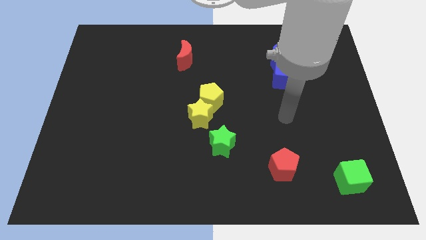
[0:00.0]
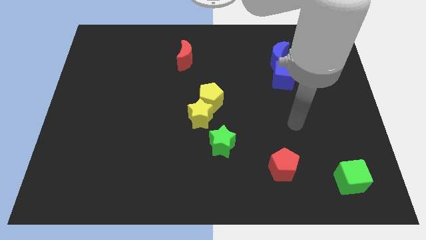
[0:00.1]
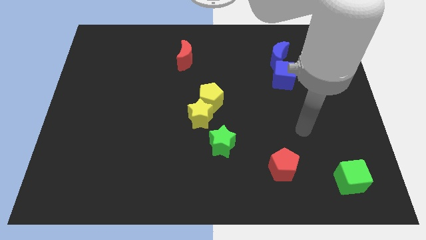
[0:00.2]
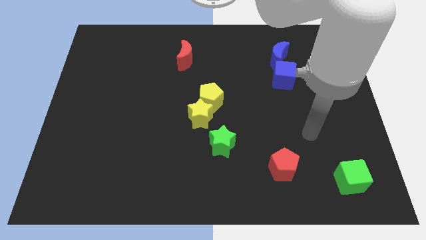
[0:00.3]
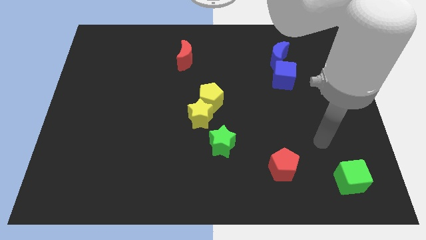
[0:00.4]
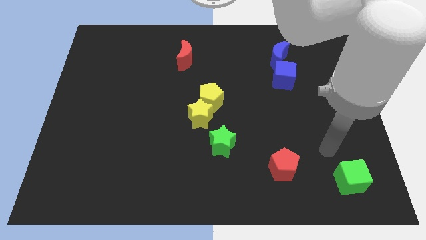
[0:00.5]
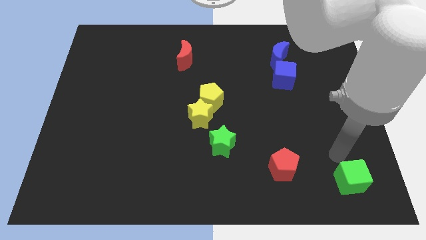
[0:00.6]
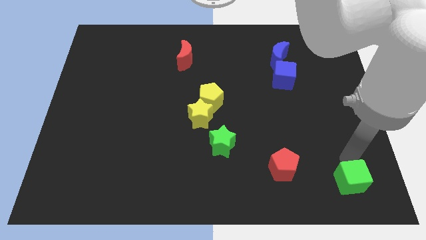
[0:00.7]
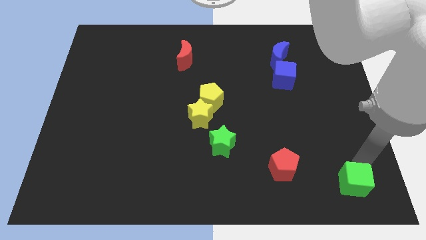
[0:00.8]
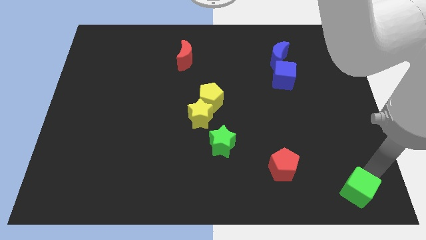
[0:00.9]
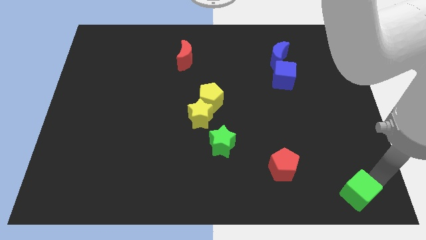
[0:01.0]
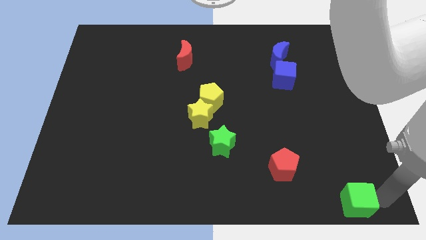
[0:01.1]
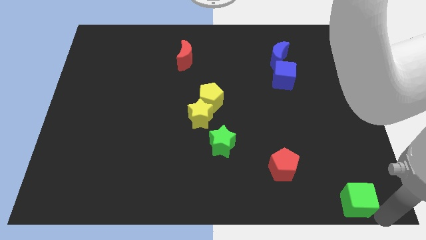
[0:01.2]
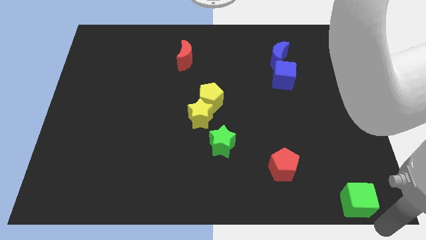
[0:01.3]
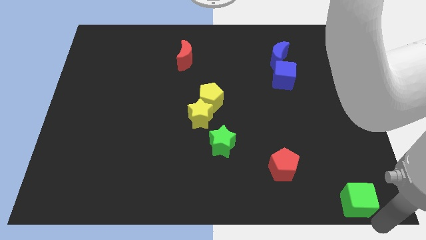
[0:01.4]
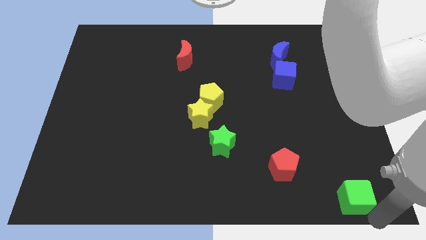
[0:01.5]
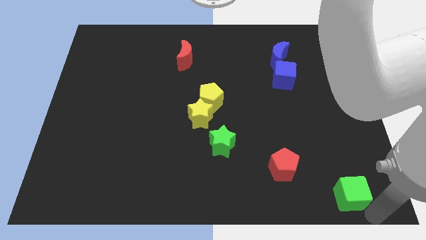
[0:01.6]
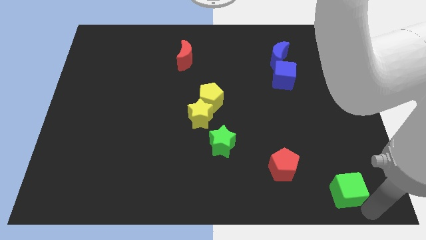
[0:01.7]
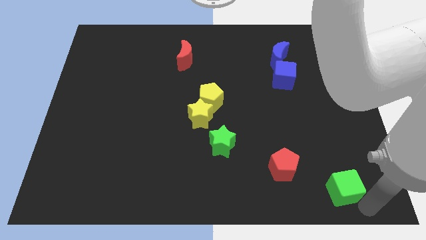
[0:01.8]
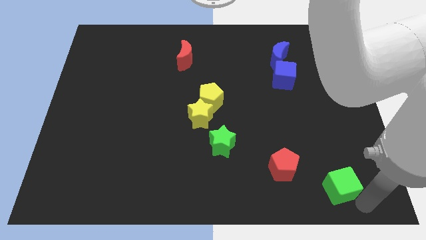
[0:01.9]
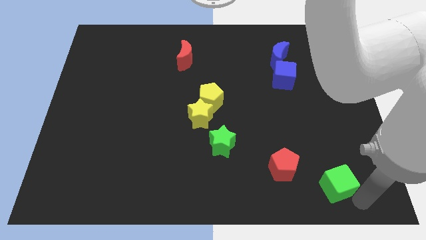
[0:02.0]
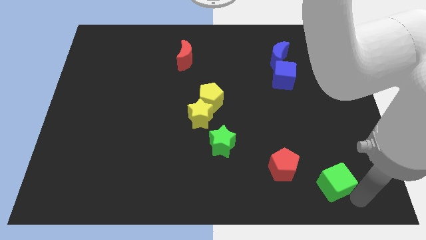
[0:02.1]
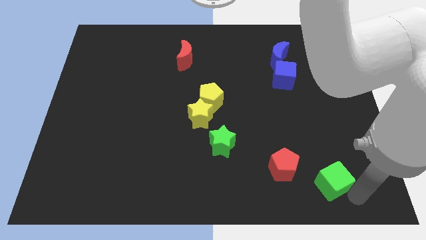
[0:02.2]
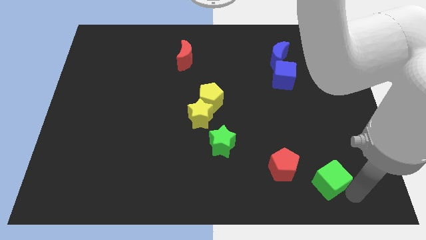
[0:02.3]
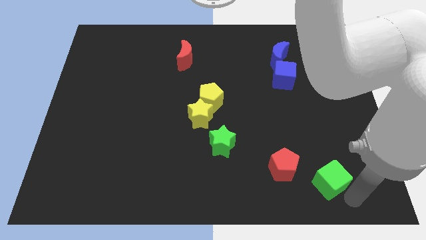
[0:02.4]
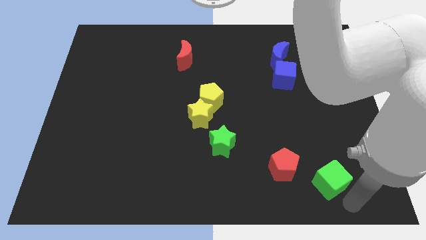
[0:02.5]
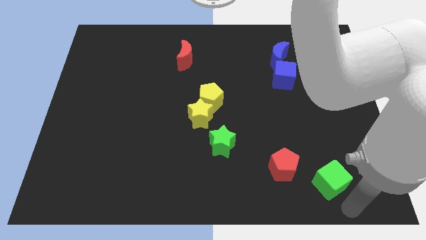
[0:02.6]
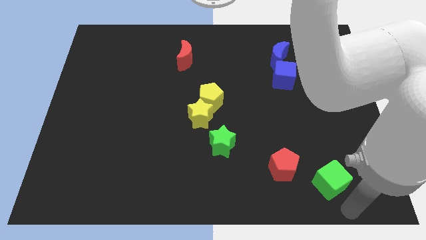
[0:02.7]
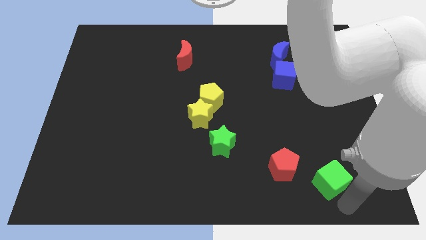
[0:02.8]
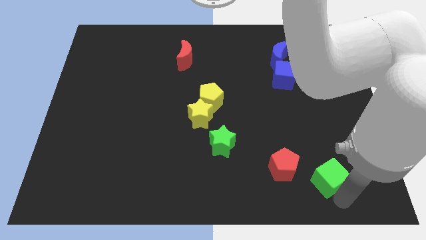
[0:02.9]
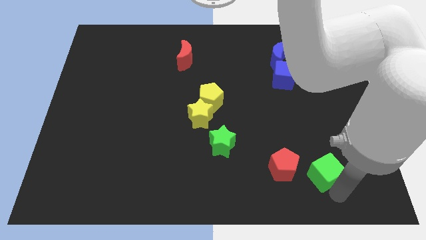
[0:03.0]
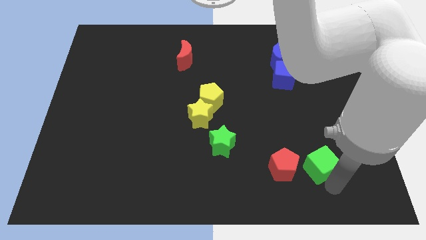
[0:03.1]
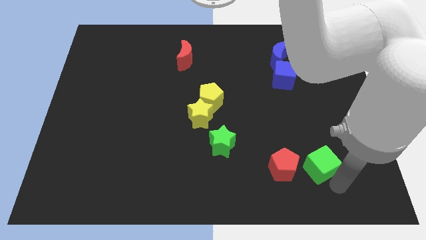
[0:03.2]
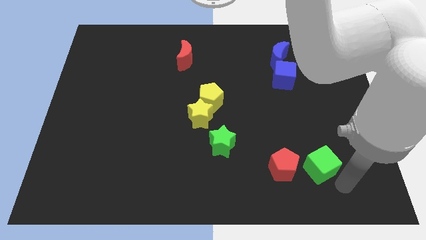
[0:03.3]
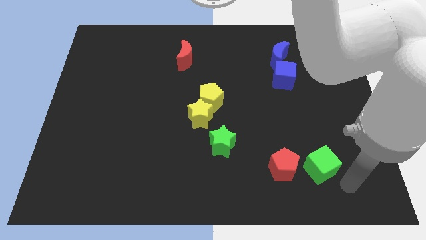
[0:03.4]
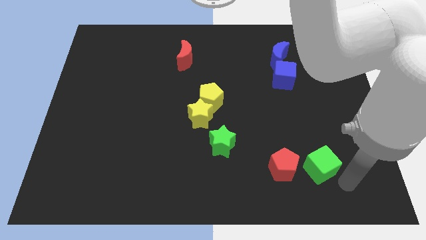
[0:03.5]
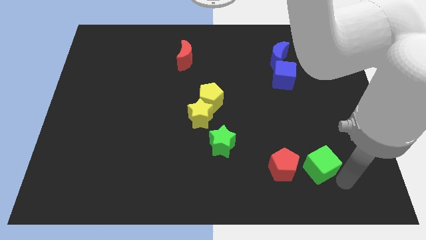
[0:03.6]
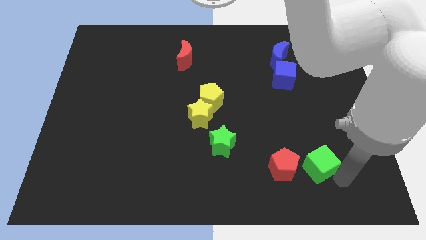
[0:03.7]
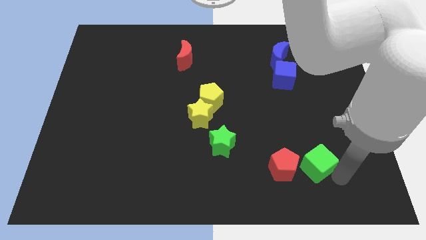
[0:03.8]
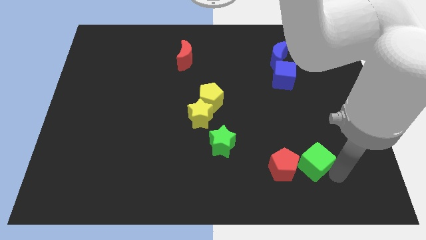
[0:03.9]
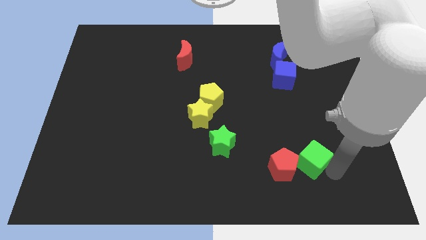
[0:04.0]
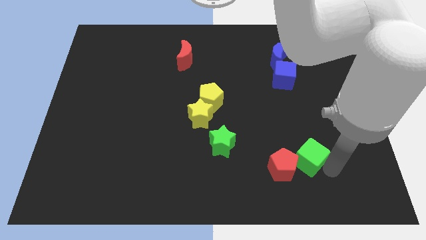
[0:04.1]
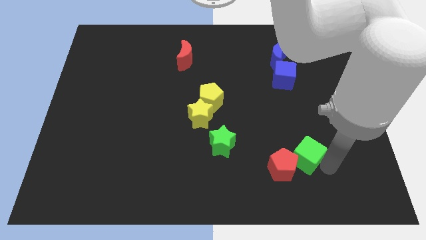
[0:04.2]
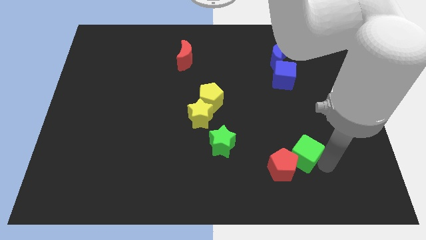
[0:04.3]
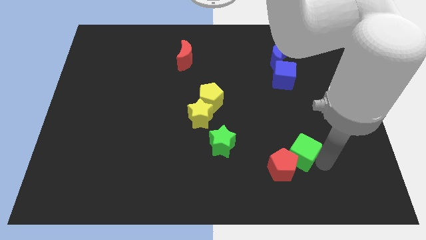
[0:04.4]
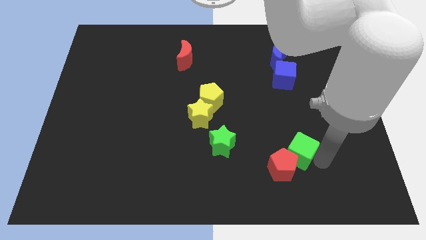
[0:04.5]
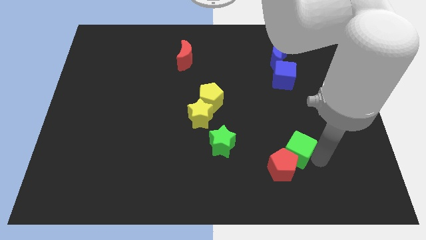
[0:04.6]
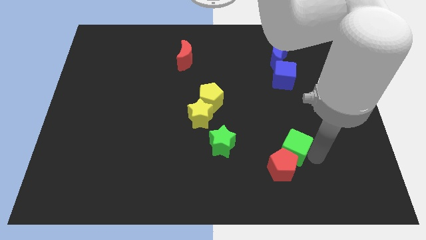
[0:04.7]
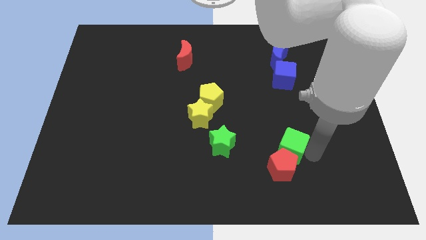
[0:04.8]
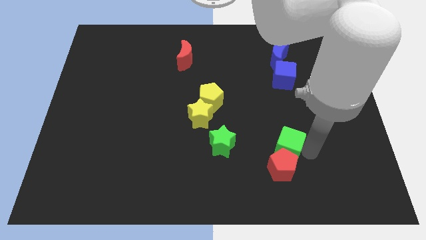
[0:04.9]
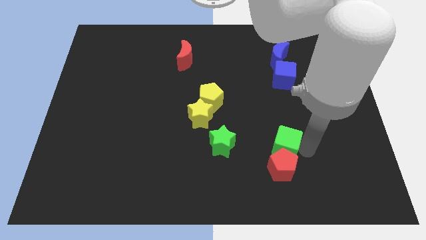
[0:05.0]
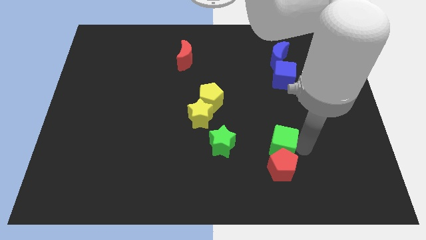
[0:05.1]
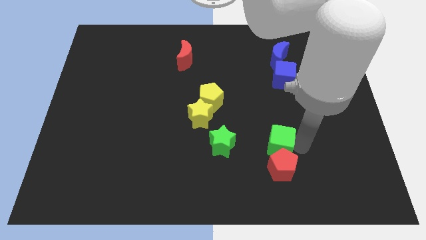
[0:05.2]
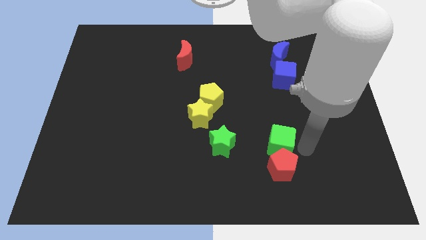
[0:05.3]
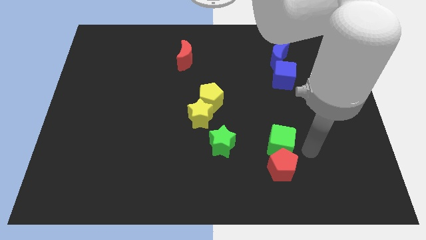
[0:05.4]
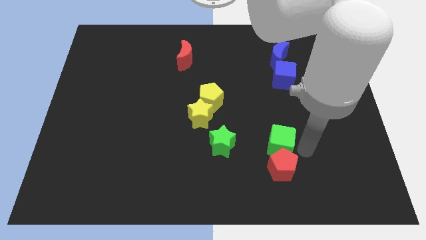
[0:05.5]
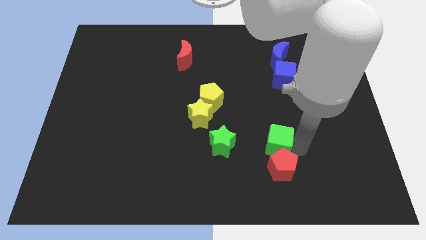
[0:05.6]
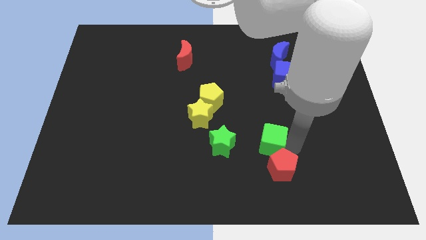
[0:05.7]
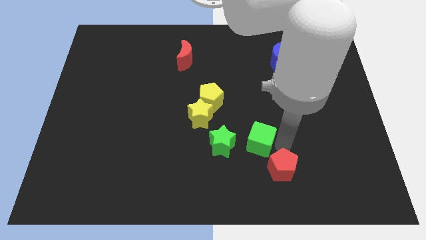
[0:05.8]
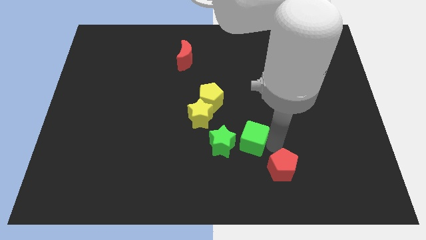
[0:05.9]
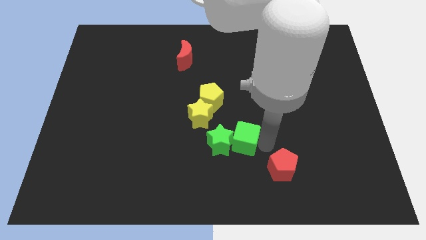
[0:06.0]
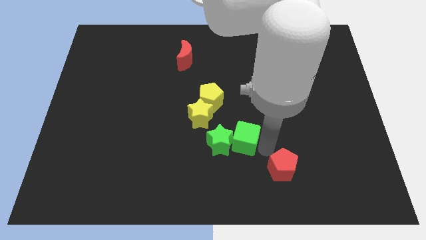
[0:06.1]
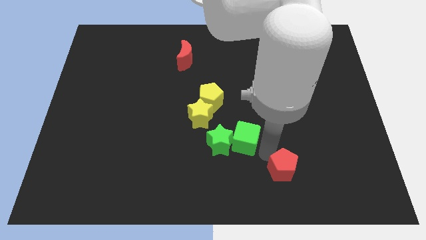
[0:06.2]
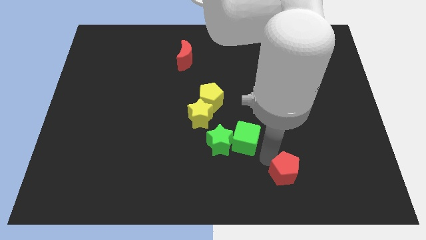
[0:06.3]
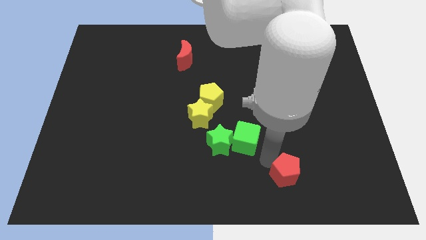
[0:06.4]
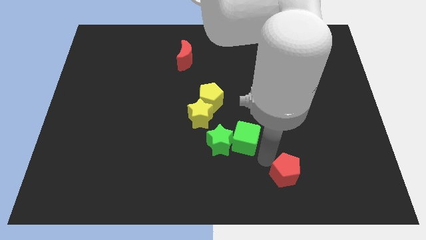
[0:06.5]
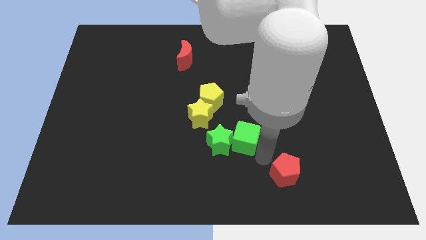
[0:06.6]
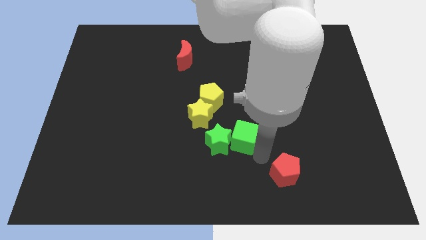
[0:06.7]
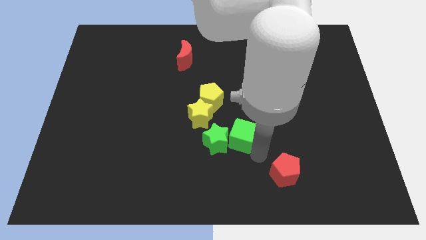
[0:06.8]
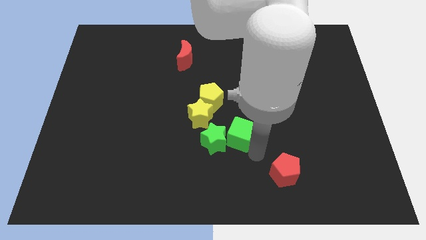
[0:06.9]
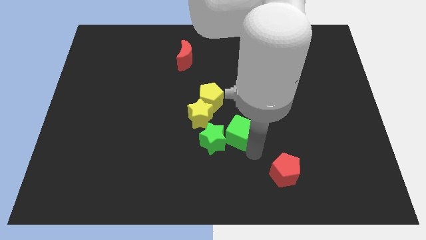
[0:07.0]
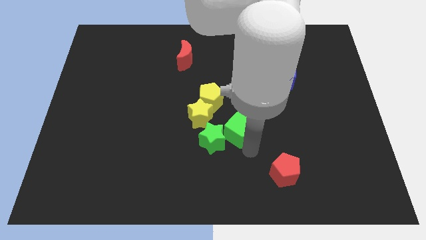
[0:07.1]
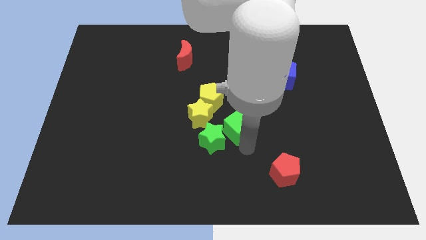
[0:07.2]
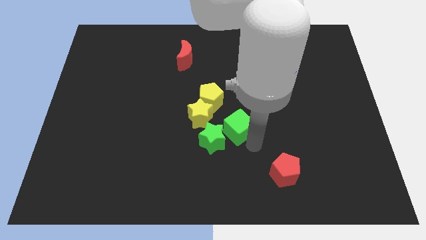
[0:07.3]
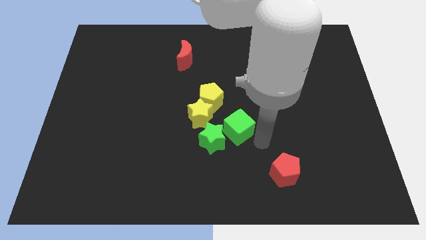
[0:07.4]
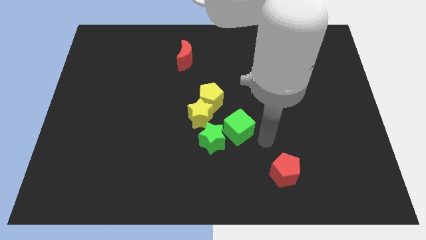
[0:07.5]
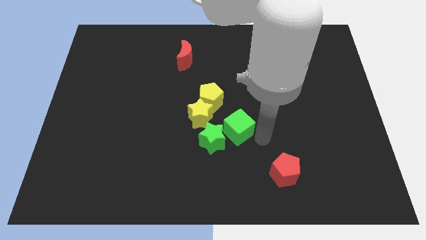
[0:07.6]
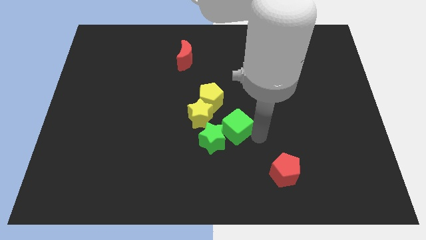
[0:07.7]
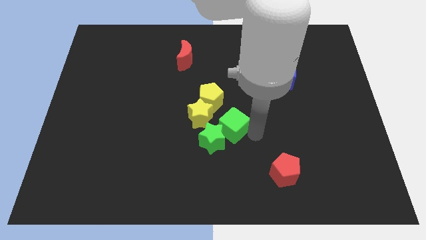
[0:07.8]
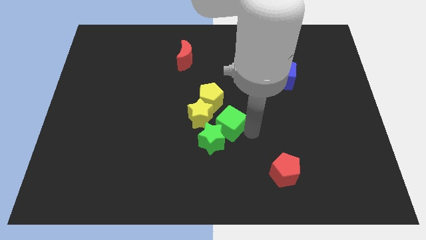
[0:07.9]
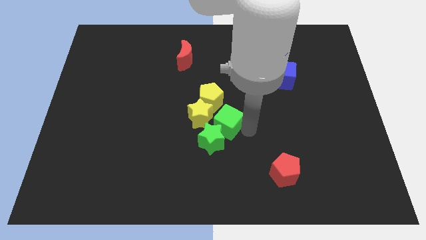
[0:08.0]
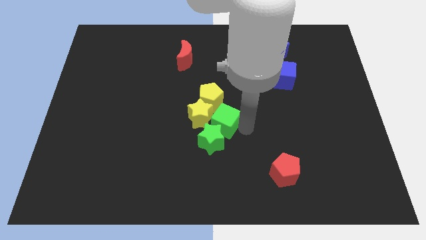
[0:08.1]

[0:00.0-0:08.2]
slide the green cube close to the yellow star

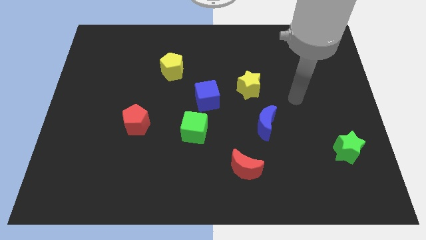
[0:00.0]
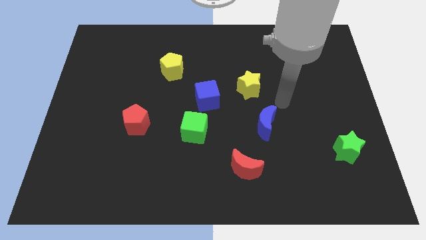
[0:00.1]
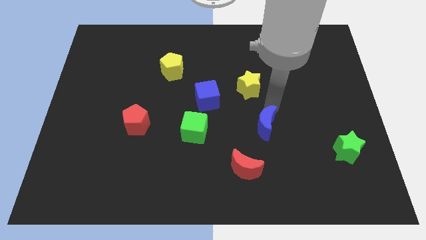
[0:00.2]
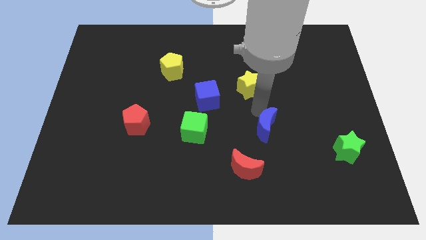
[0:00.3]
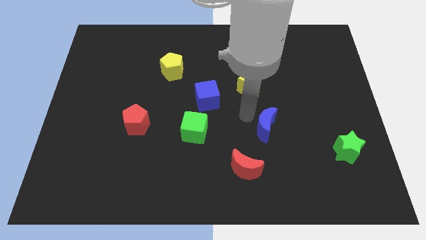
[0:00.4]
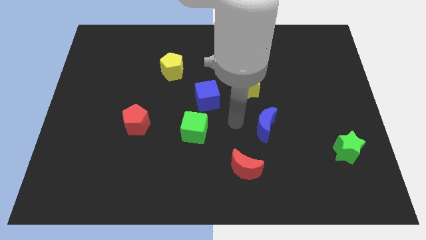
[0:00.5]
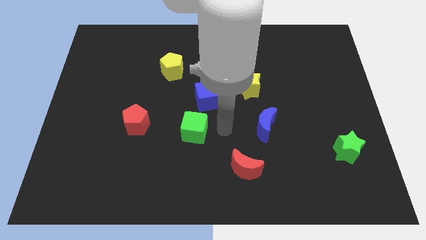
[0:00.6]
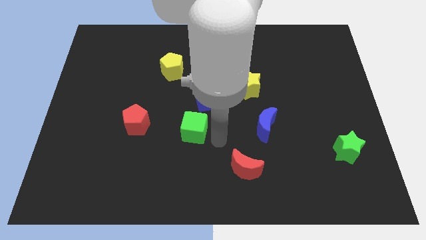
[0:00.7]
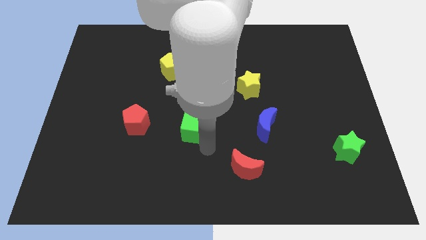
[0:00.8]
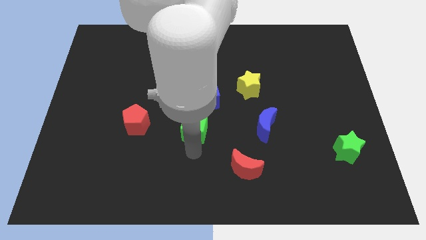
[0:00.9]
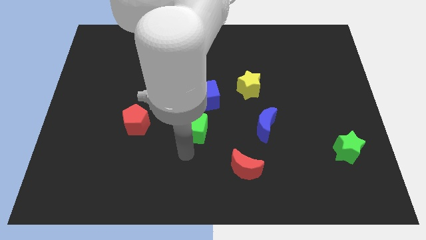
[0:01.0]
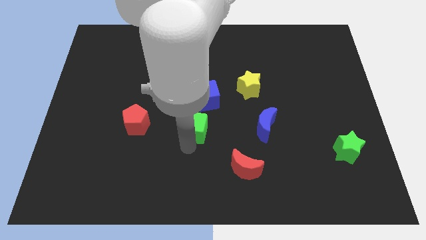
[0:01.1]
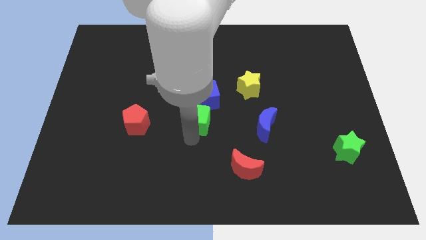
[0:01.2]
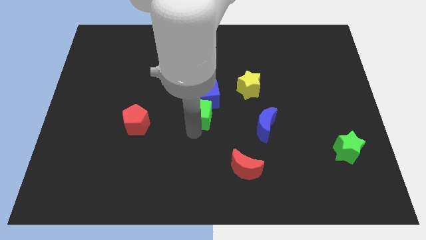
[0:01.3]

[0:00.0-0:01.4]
push the green cube to the blue cube
